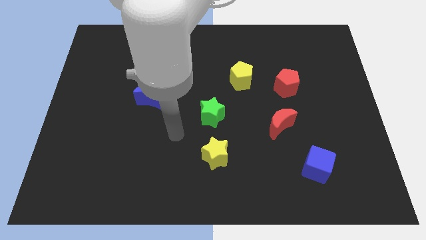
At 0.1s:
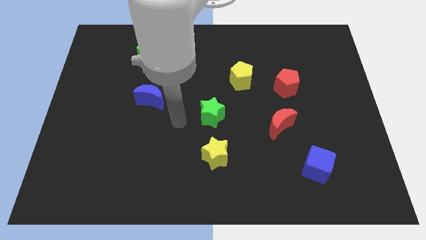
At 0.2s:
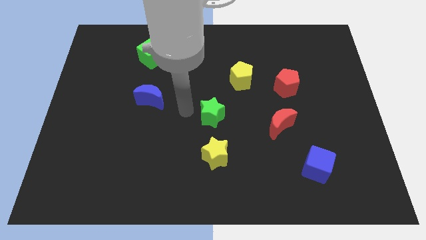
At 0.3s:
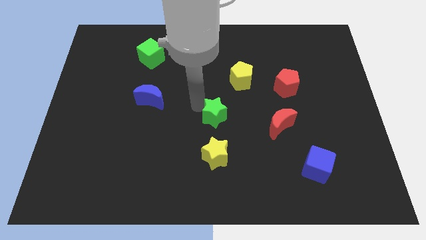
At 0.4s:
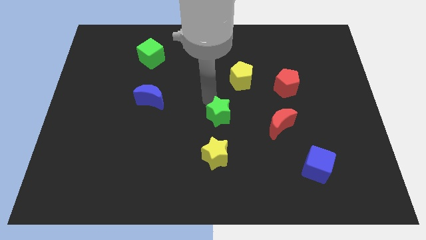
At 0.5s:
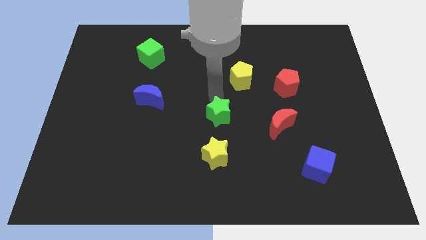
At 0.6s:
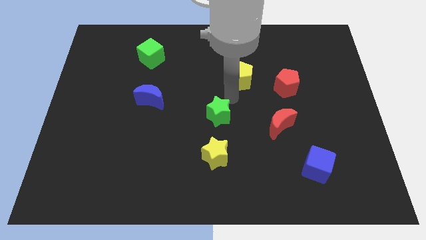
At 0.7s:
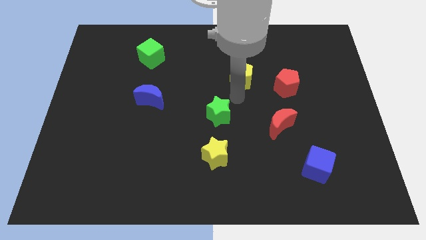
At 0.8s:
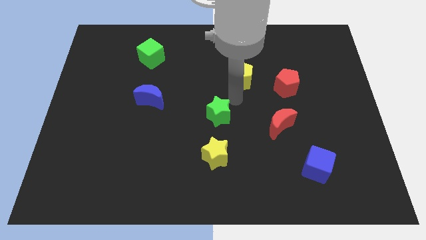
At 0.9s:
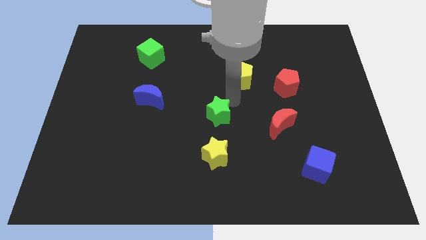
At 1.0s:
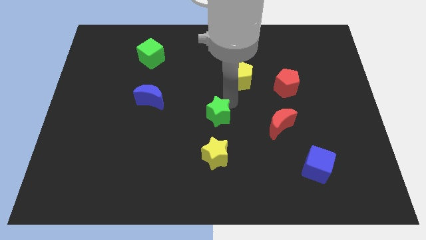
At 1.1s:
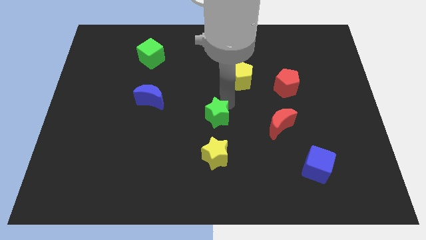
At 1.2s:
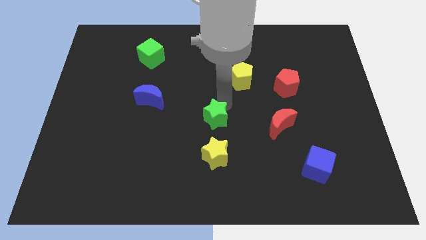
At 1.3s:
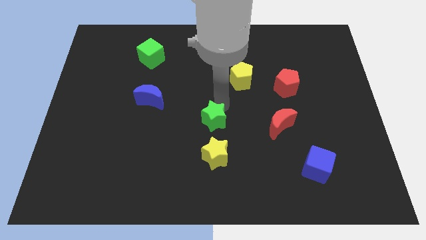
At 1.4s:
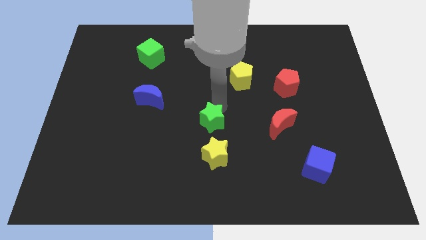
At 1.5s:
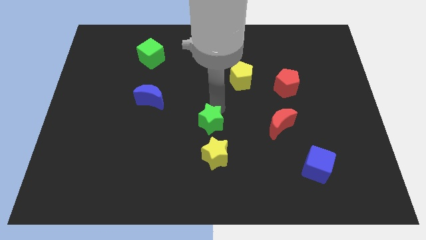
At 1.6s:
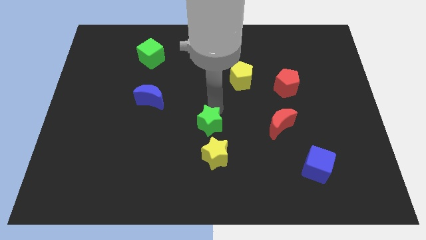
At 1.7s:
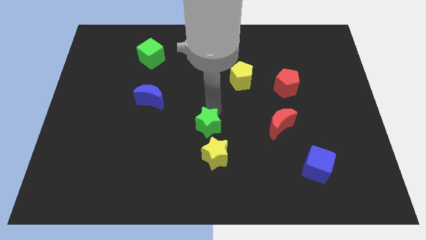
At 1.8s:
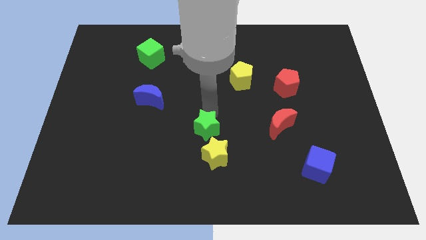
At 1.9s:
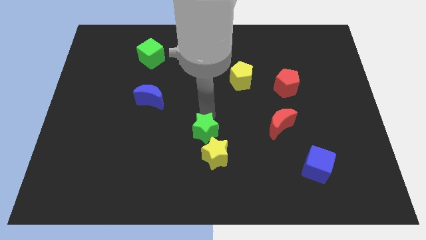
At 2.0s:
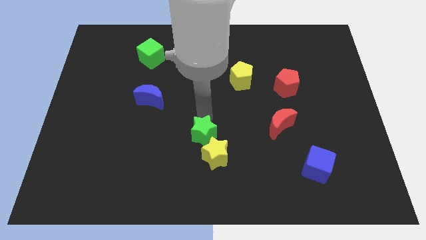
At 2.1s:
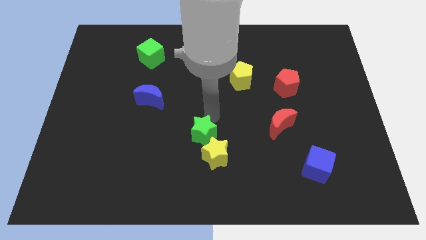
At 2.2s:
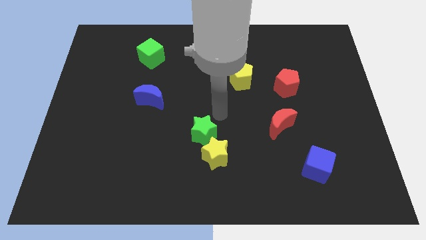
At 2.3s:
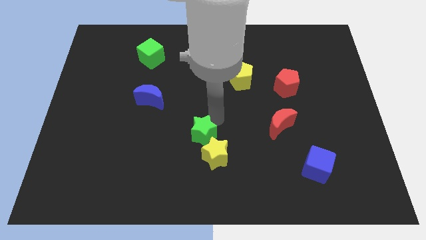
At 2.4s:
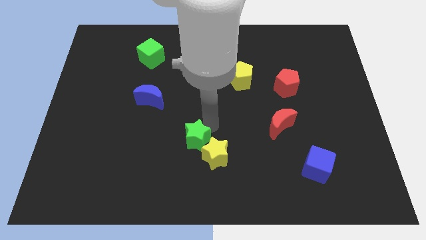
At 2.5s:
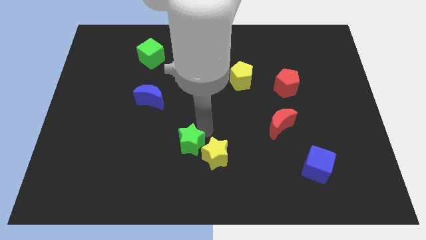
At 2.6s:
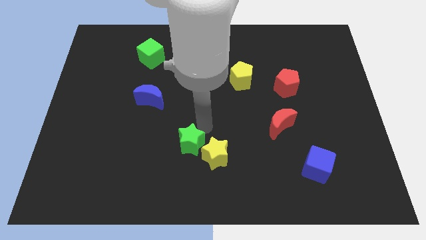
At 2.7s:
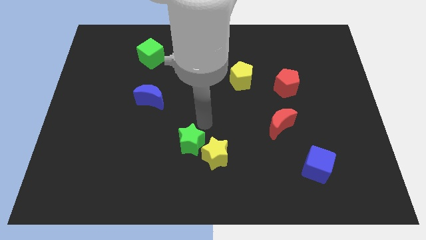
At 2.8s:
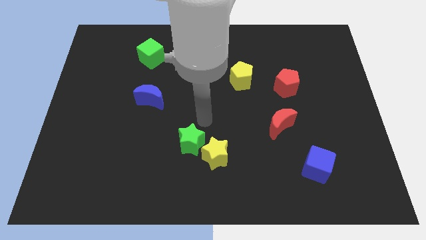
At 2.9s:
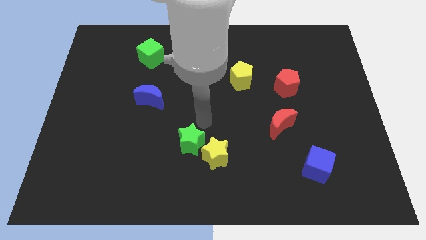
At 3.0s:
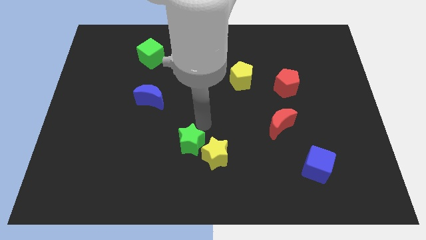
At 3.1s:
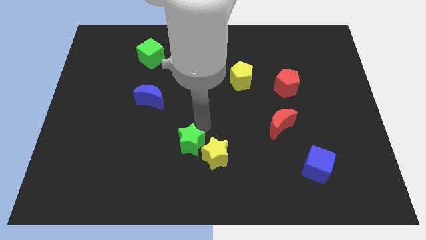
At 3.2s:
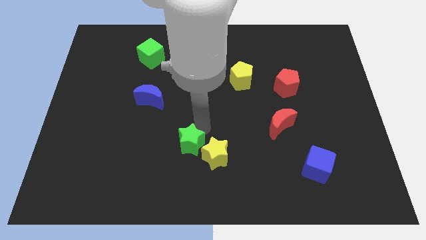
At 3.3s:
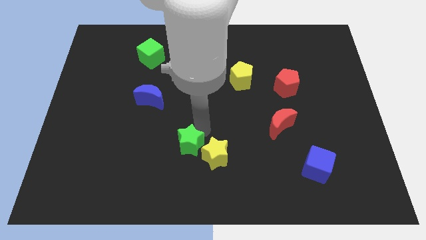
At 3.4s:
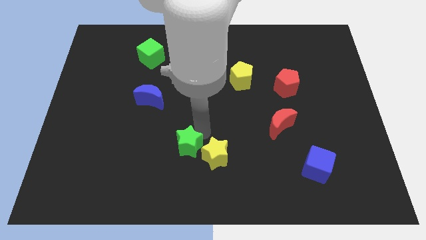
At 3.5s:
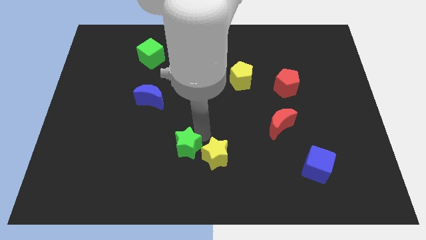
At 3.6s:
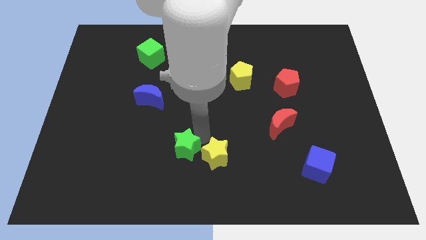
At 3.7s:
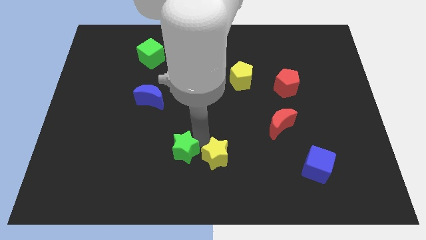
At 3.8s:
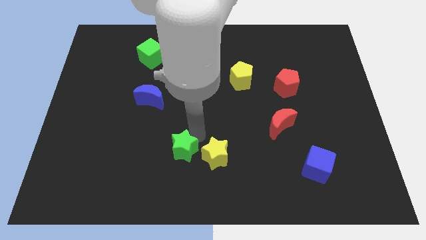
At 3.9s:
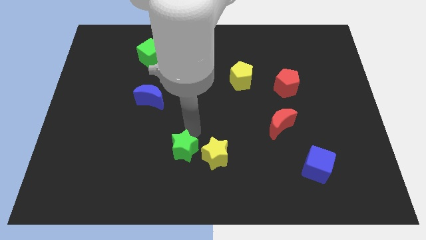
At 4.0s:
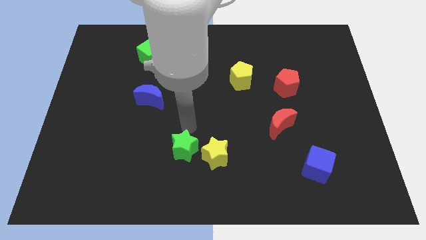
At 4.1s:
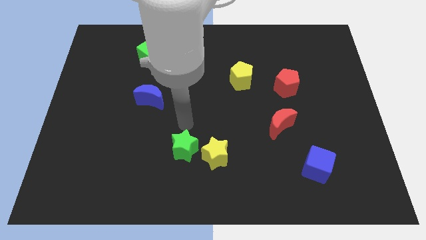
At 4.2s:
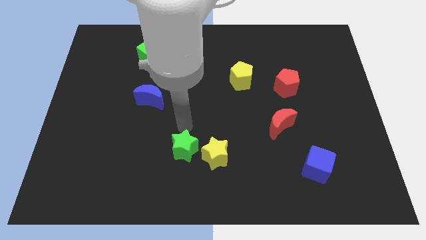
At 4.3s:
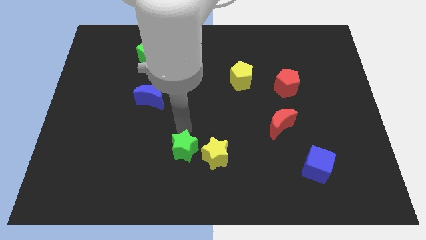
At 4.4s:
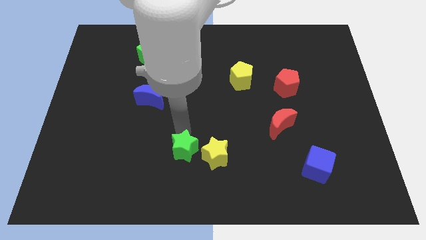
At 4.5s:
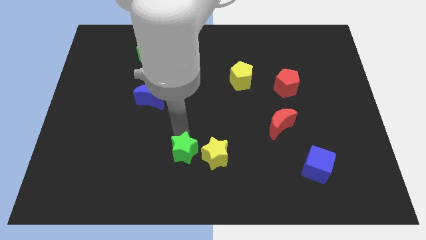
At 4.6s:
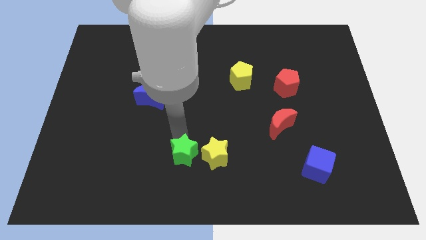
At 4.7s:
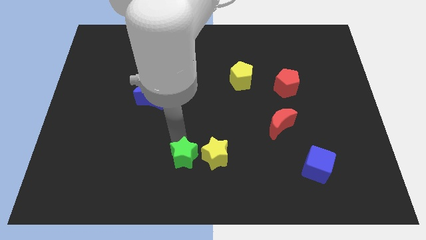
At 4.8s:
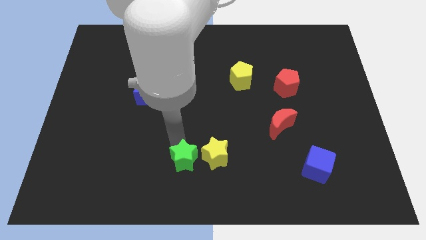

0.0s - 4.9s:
put the green star to the bottom

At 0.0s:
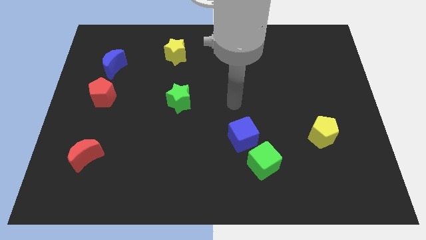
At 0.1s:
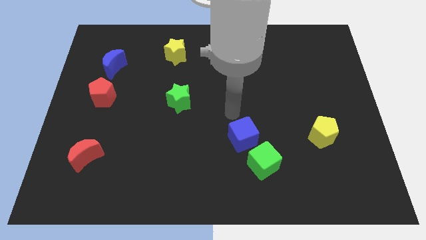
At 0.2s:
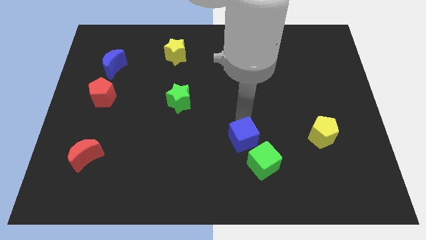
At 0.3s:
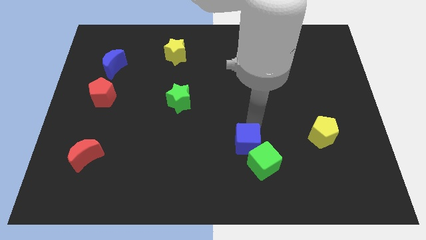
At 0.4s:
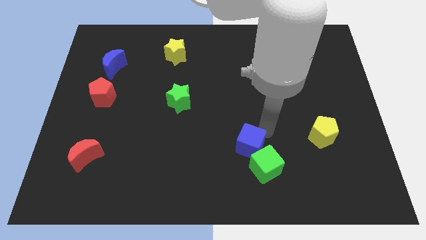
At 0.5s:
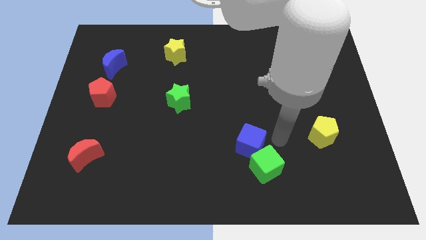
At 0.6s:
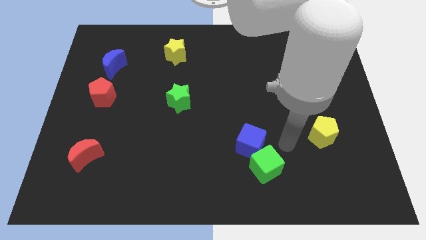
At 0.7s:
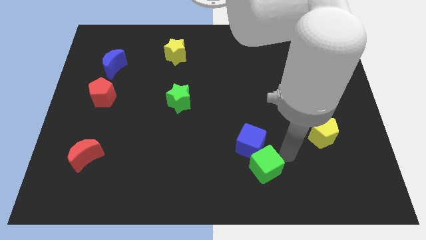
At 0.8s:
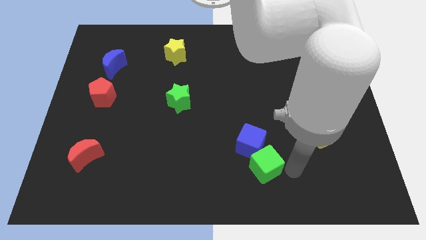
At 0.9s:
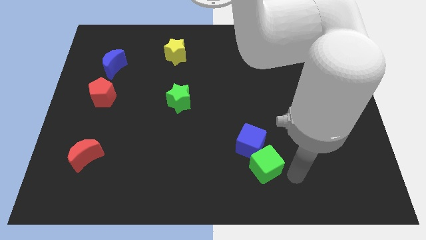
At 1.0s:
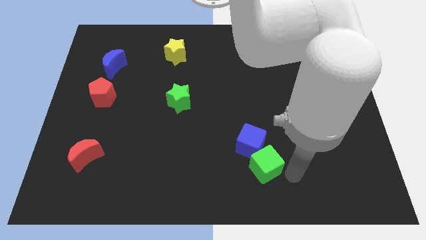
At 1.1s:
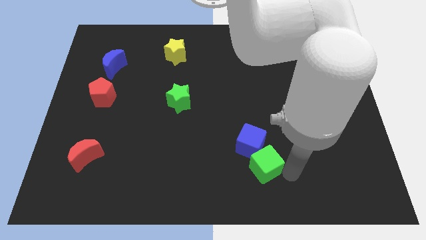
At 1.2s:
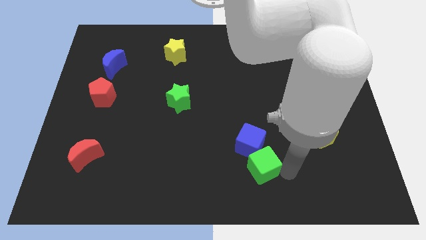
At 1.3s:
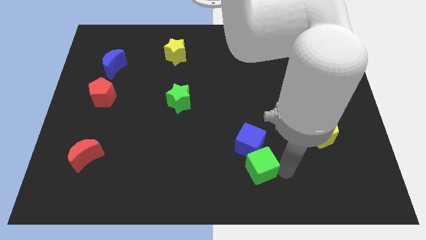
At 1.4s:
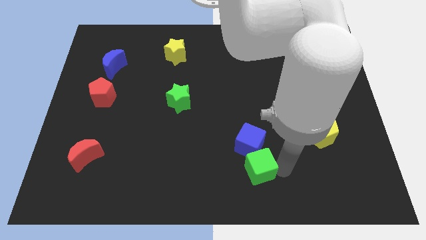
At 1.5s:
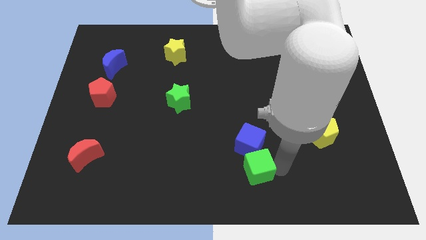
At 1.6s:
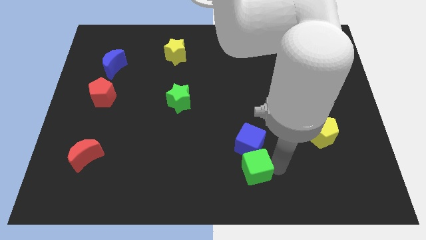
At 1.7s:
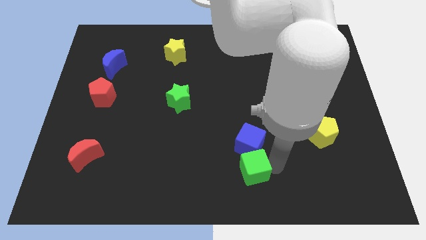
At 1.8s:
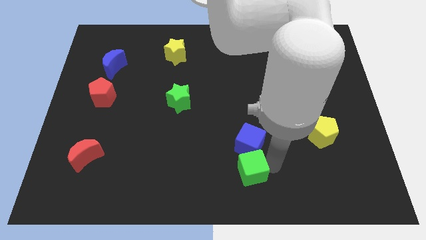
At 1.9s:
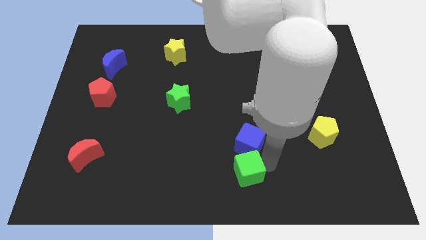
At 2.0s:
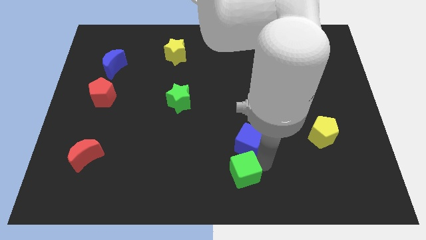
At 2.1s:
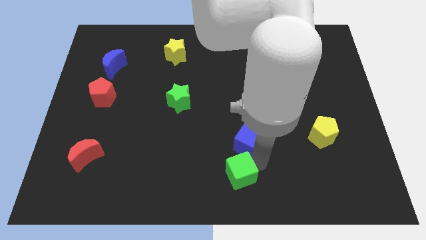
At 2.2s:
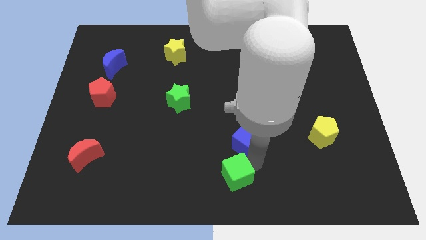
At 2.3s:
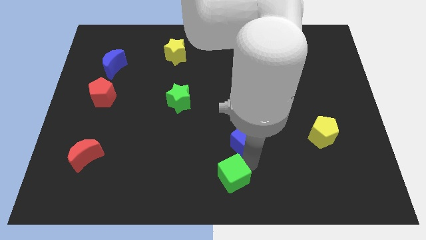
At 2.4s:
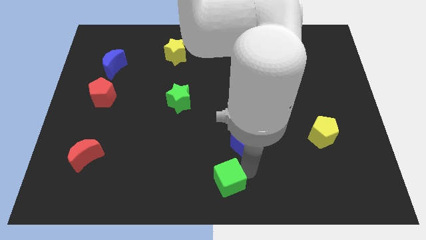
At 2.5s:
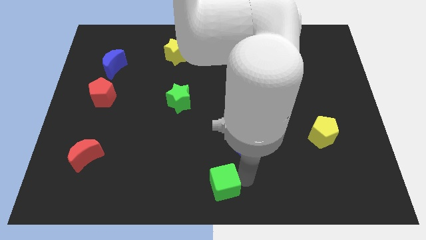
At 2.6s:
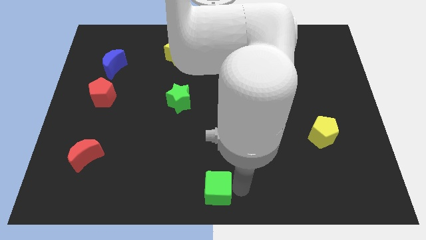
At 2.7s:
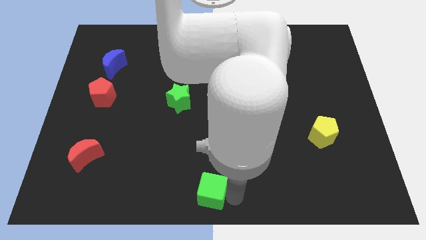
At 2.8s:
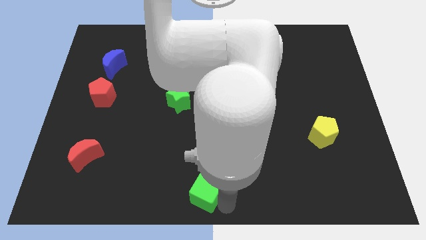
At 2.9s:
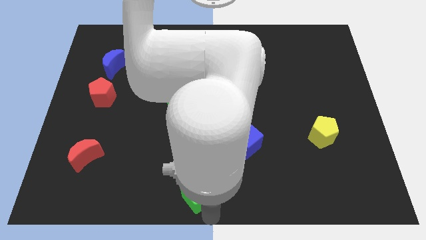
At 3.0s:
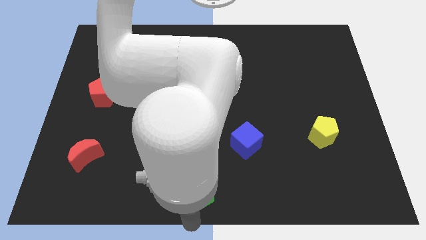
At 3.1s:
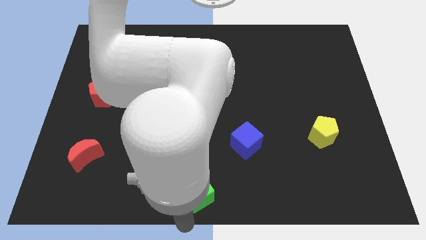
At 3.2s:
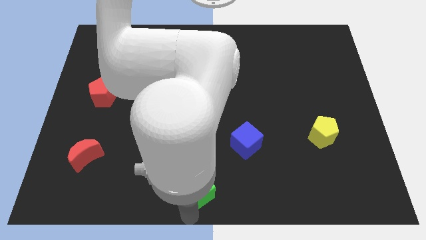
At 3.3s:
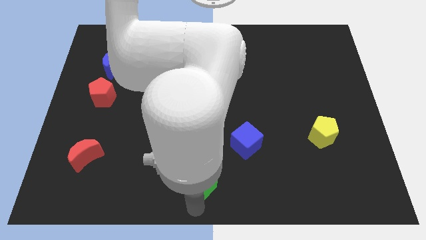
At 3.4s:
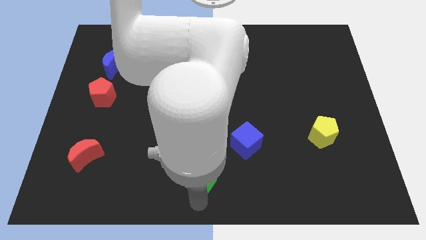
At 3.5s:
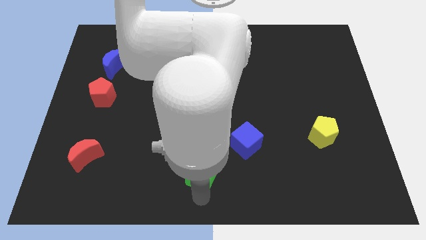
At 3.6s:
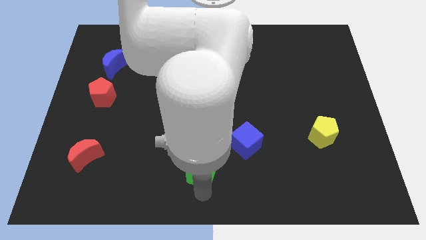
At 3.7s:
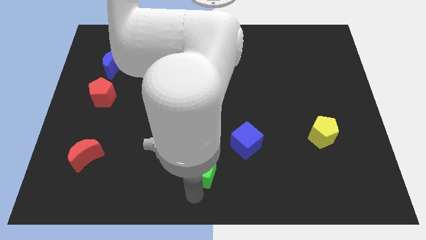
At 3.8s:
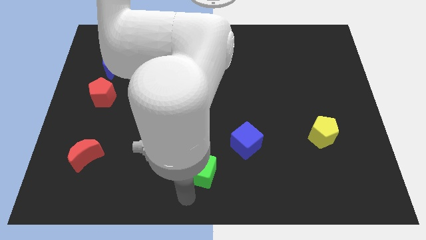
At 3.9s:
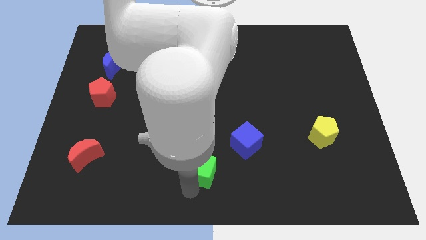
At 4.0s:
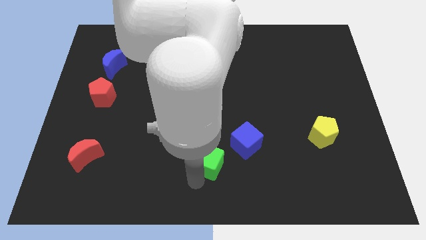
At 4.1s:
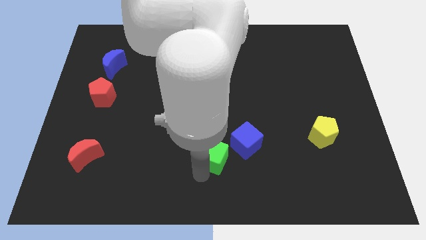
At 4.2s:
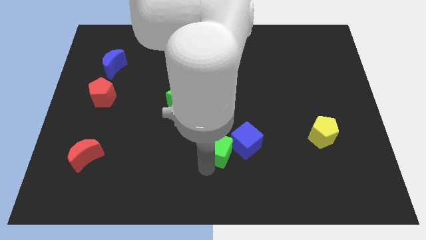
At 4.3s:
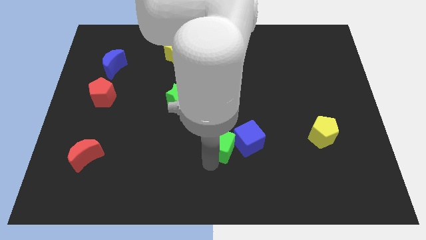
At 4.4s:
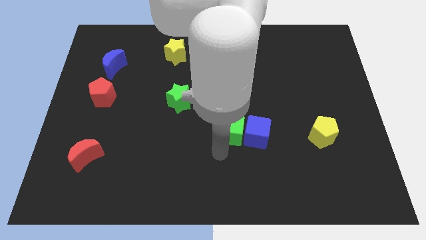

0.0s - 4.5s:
slide the green cube to the center of the board
